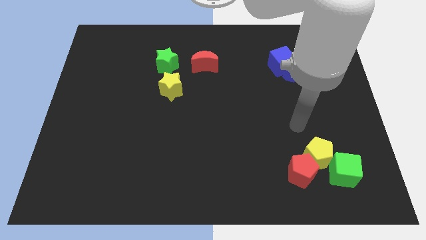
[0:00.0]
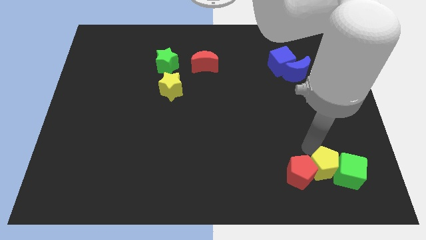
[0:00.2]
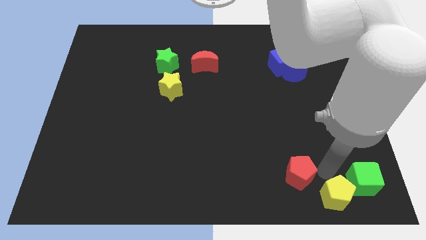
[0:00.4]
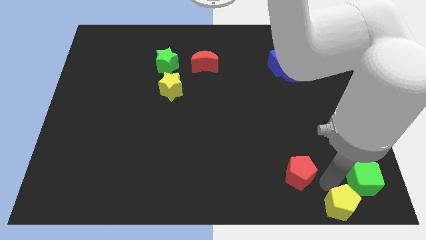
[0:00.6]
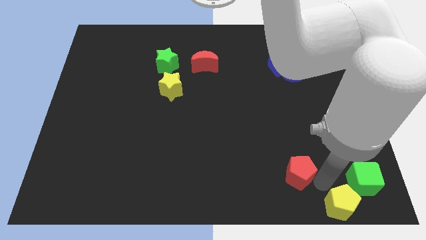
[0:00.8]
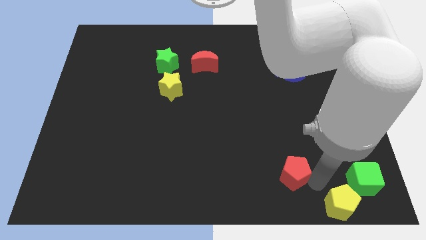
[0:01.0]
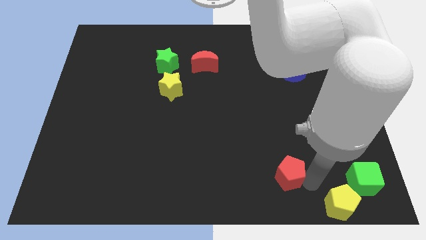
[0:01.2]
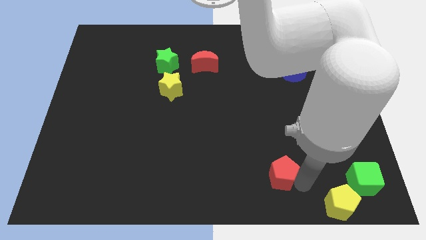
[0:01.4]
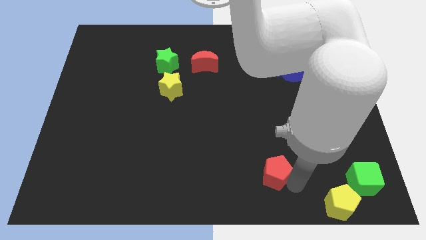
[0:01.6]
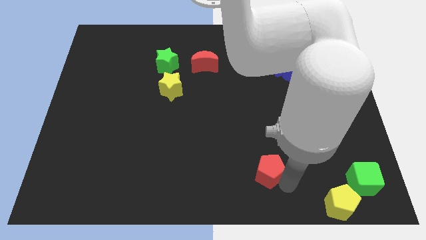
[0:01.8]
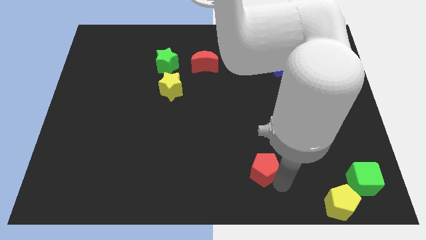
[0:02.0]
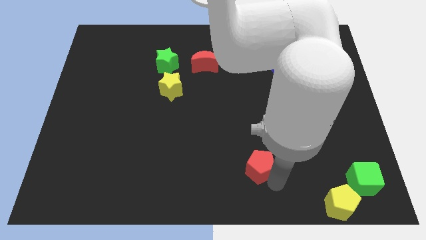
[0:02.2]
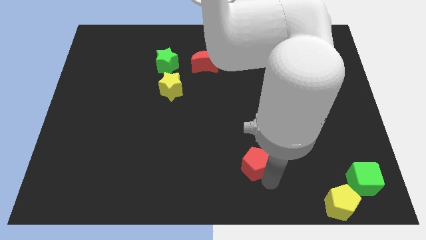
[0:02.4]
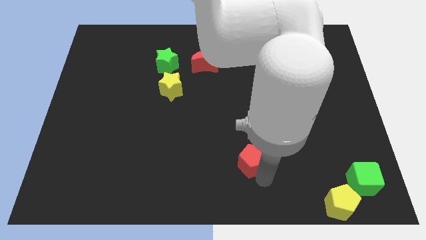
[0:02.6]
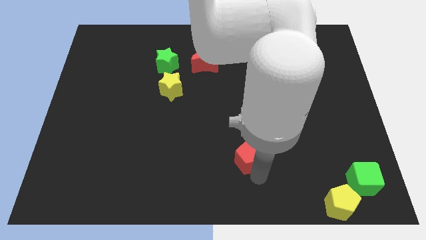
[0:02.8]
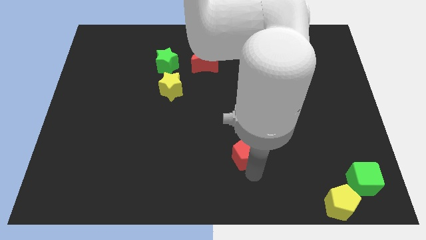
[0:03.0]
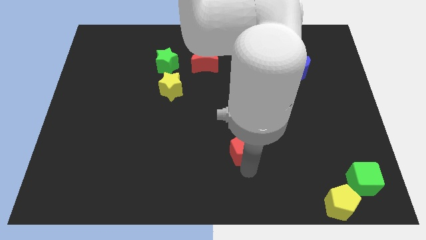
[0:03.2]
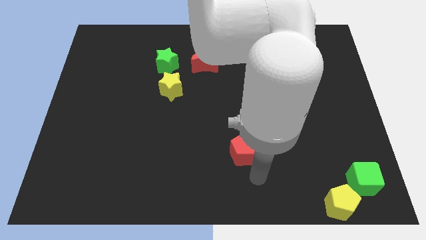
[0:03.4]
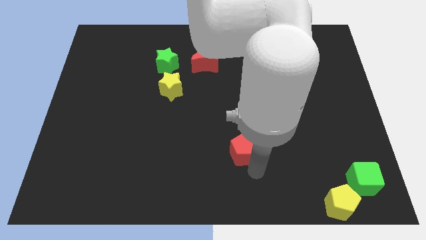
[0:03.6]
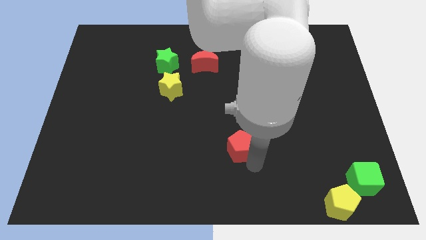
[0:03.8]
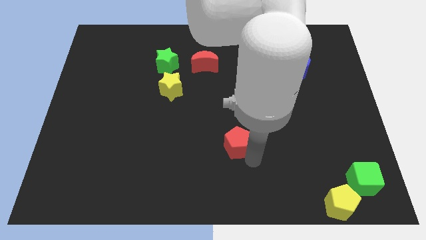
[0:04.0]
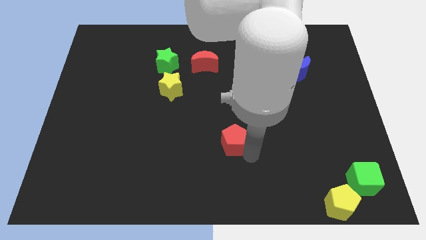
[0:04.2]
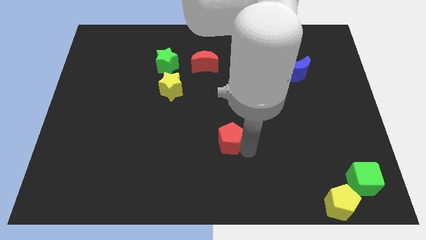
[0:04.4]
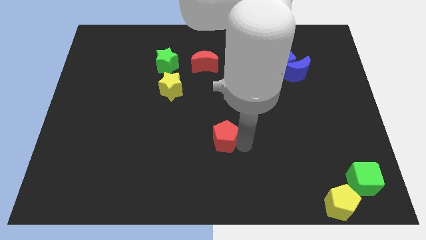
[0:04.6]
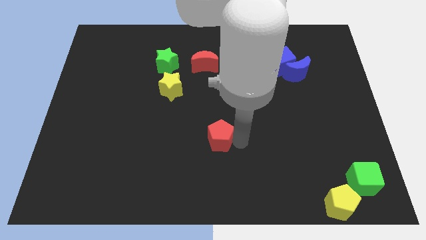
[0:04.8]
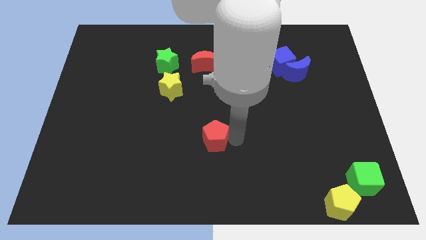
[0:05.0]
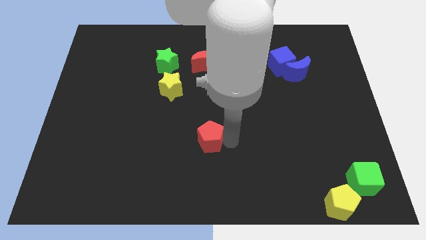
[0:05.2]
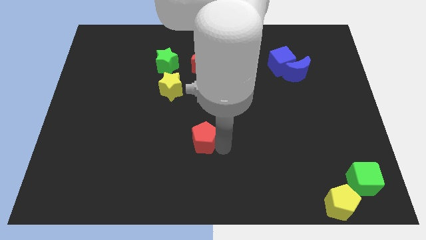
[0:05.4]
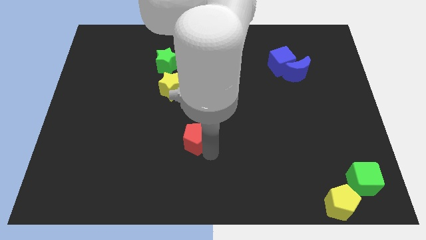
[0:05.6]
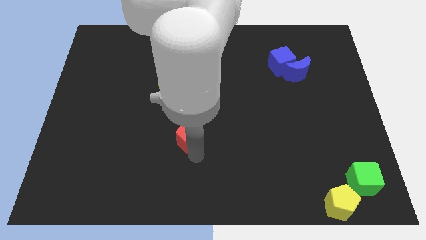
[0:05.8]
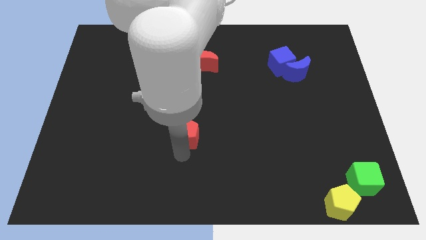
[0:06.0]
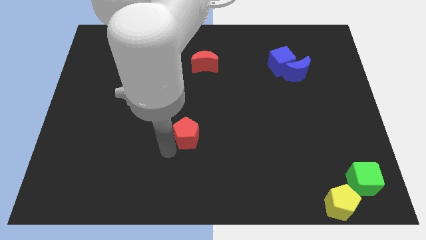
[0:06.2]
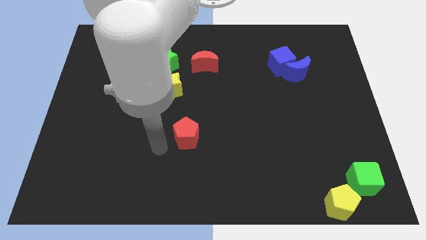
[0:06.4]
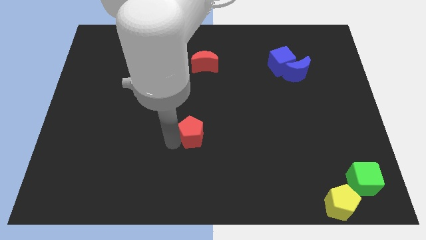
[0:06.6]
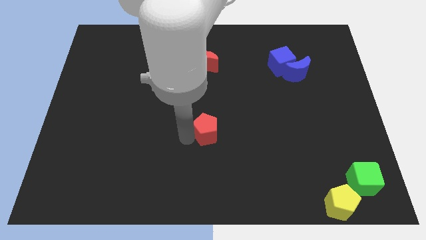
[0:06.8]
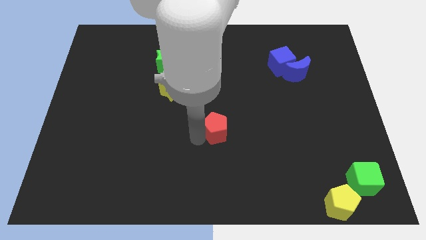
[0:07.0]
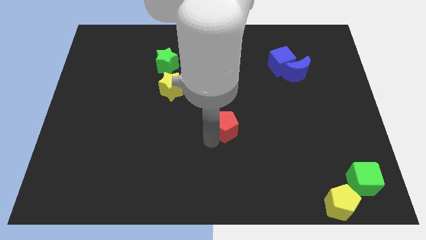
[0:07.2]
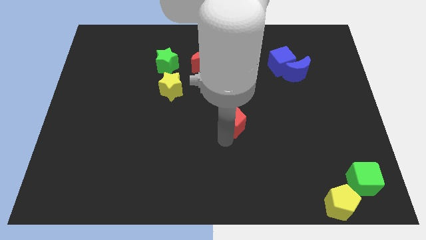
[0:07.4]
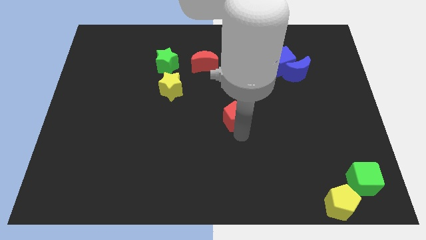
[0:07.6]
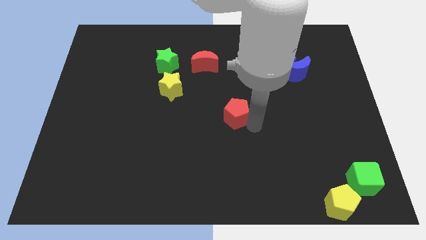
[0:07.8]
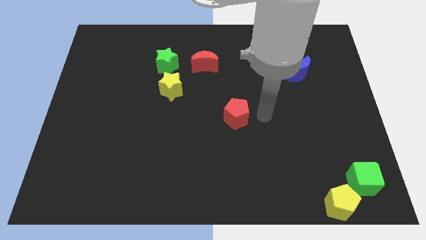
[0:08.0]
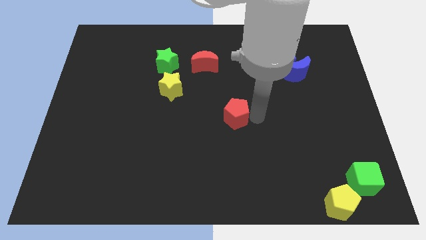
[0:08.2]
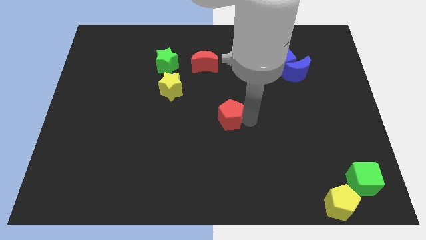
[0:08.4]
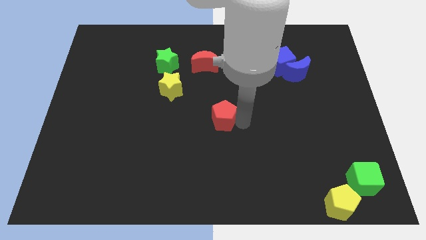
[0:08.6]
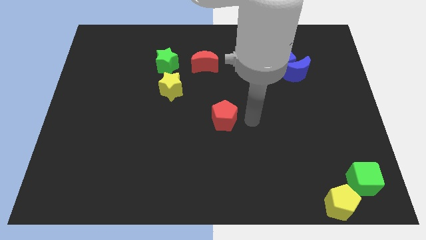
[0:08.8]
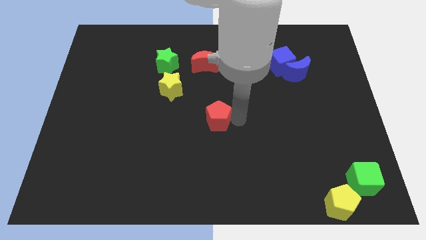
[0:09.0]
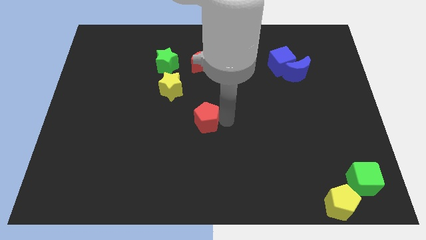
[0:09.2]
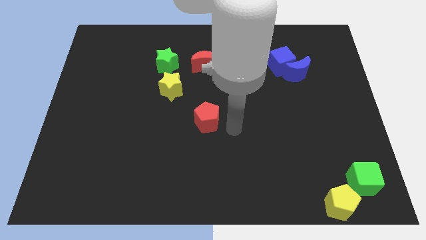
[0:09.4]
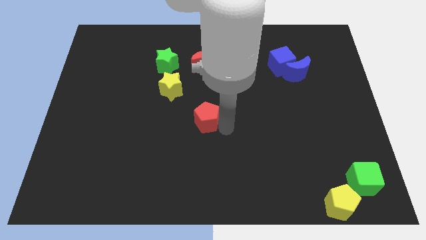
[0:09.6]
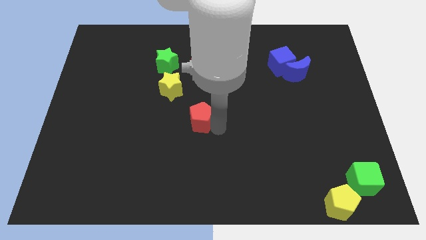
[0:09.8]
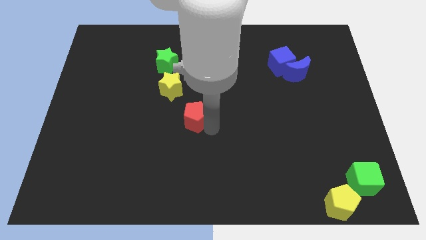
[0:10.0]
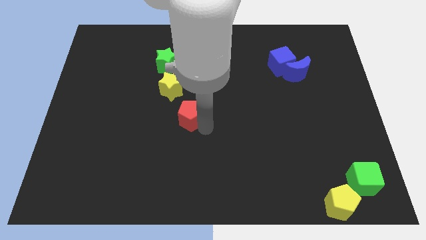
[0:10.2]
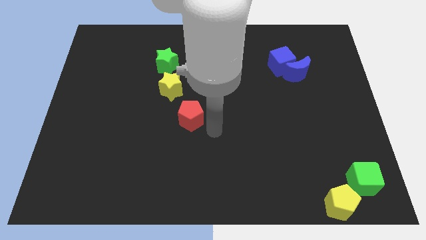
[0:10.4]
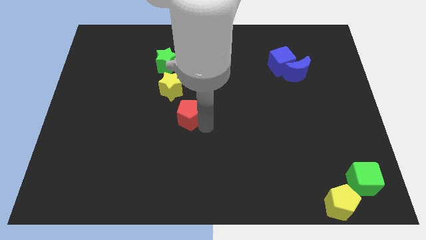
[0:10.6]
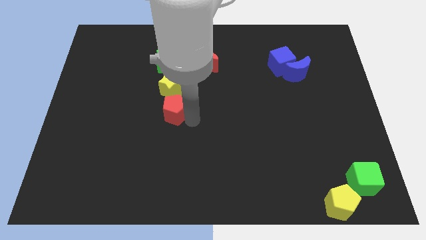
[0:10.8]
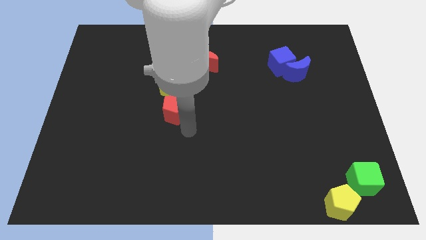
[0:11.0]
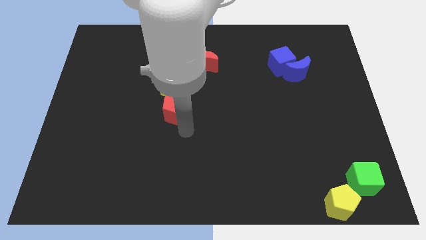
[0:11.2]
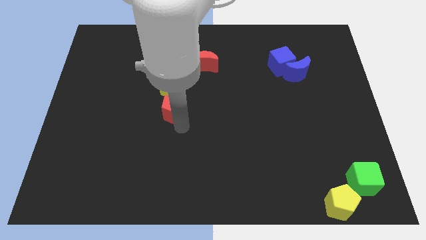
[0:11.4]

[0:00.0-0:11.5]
put the red pentagon to the bottom side of the green star

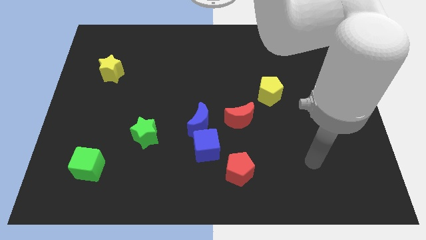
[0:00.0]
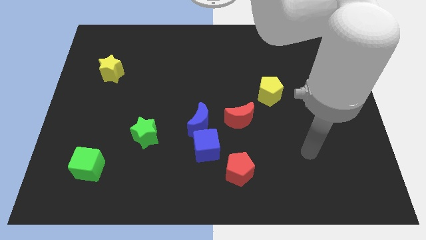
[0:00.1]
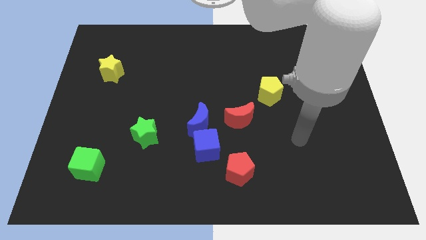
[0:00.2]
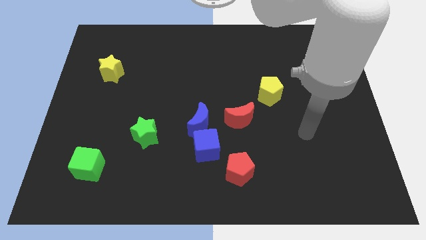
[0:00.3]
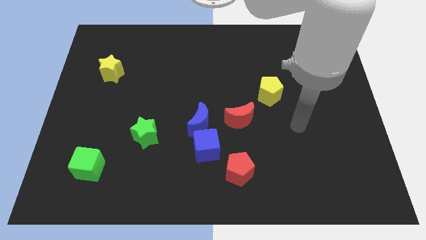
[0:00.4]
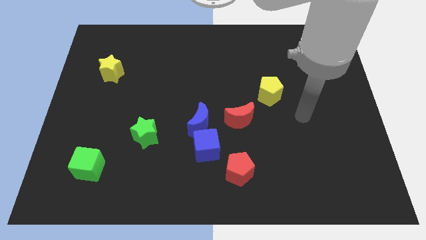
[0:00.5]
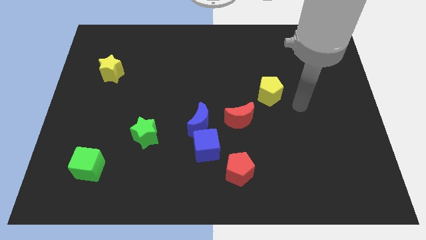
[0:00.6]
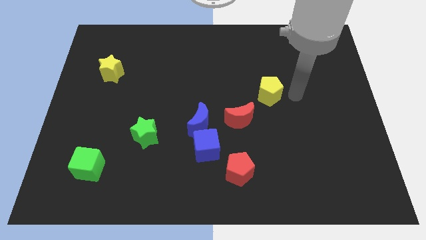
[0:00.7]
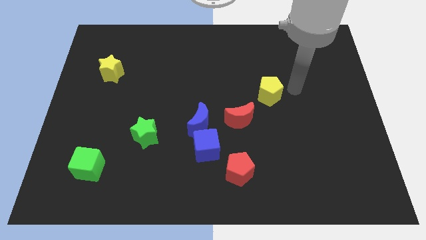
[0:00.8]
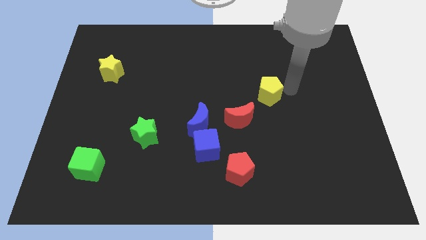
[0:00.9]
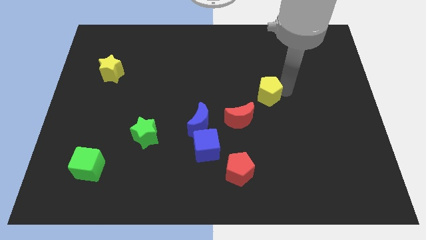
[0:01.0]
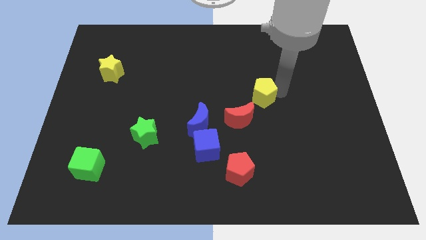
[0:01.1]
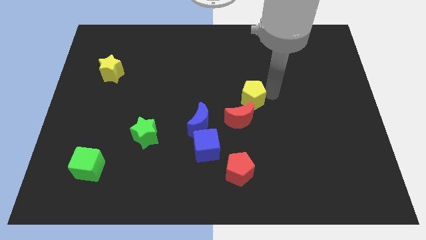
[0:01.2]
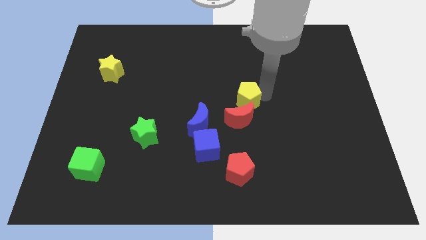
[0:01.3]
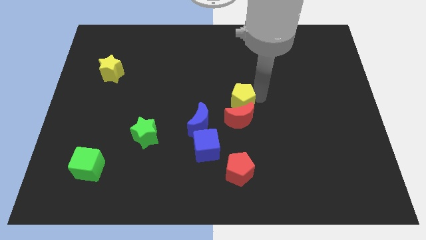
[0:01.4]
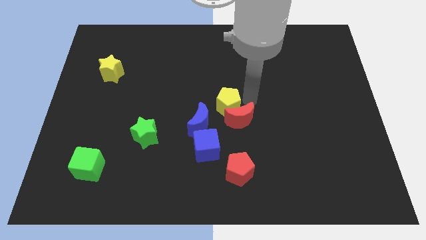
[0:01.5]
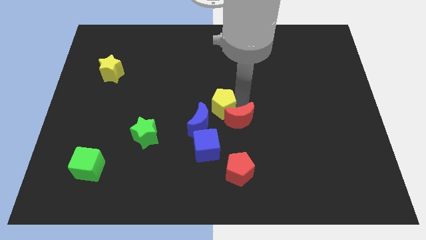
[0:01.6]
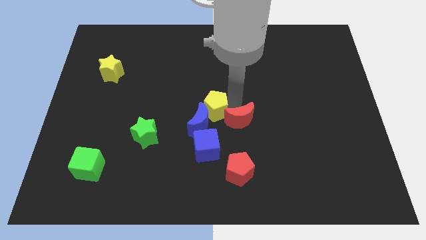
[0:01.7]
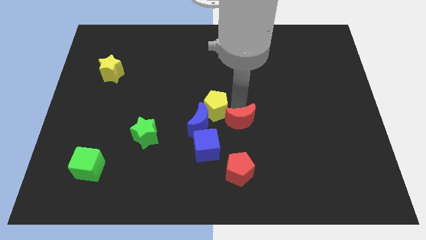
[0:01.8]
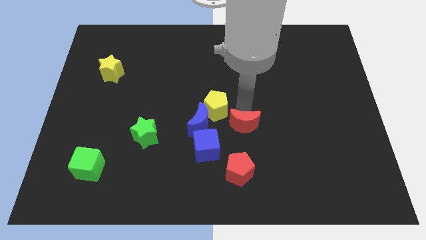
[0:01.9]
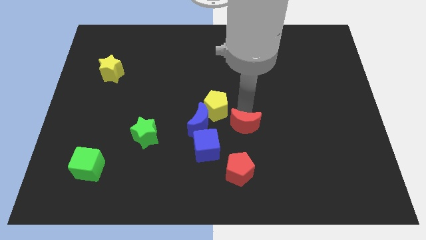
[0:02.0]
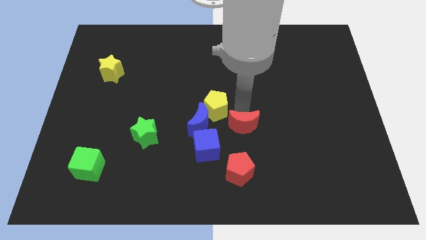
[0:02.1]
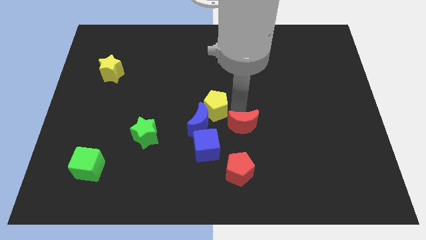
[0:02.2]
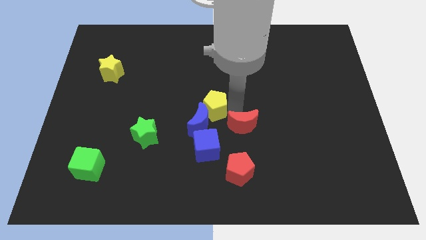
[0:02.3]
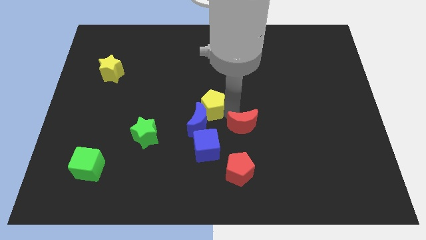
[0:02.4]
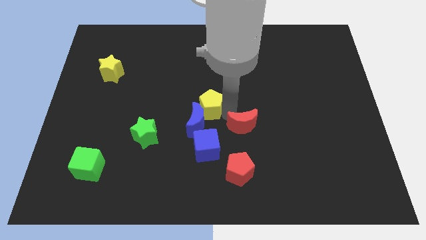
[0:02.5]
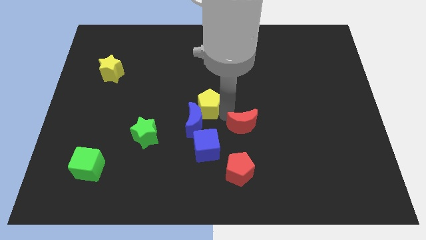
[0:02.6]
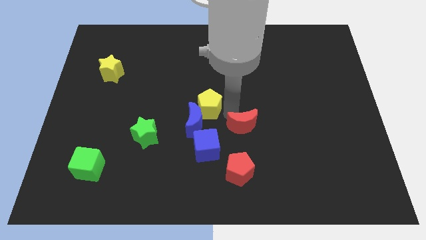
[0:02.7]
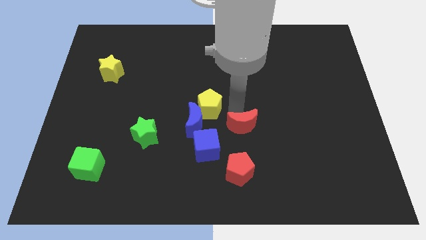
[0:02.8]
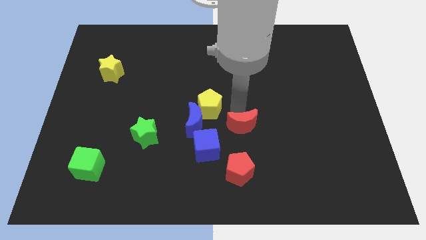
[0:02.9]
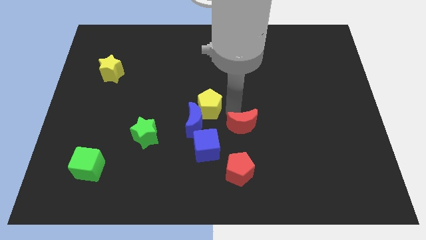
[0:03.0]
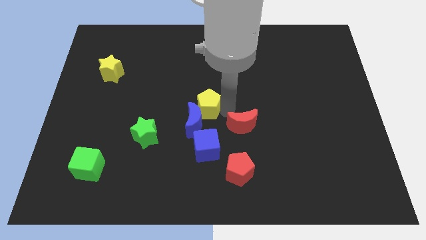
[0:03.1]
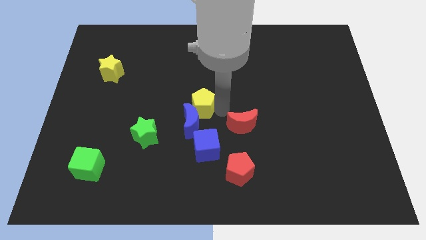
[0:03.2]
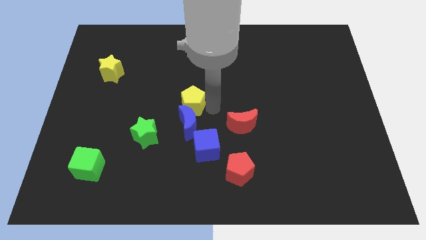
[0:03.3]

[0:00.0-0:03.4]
move the yellow pentagon to the top left side of the blue moon
